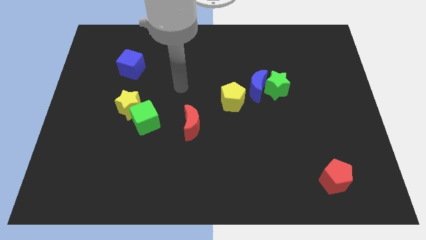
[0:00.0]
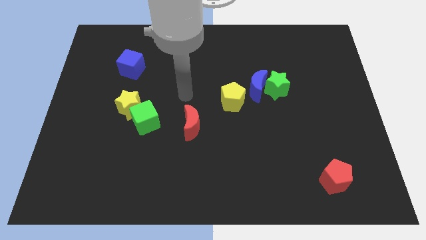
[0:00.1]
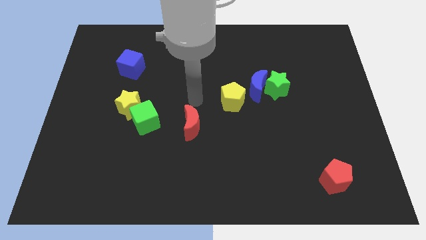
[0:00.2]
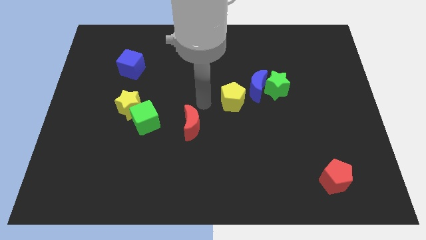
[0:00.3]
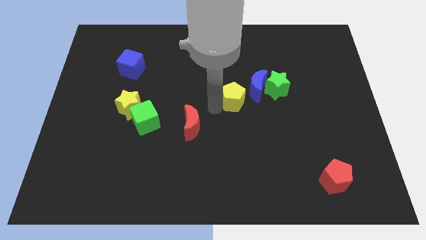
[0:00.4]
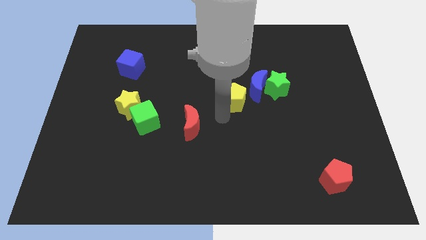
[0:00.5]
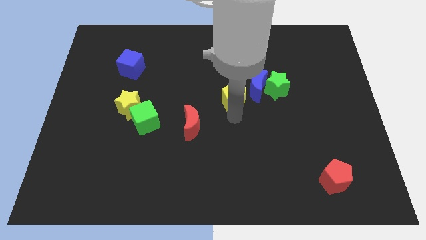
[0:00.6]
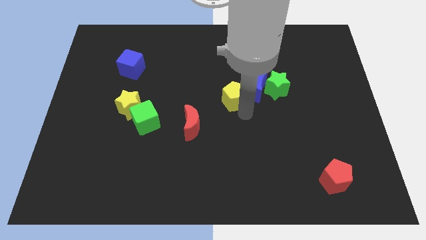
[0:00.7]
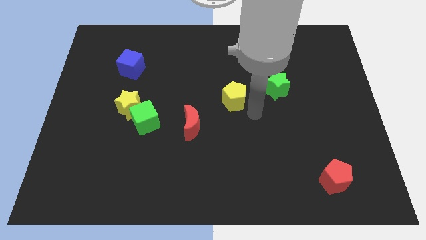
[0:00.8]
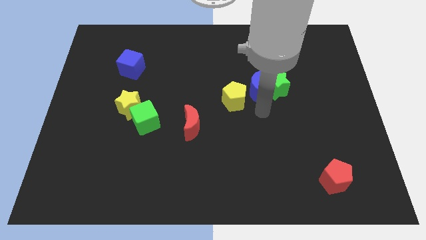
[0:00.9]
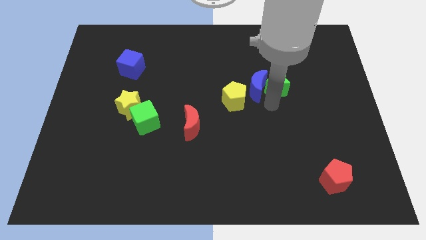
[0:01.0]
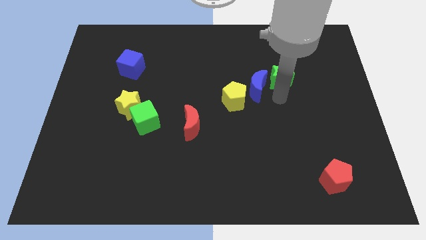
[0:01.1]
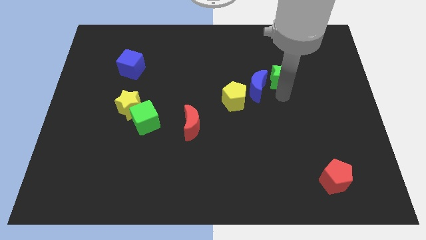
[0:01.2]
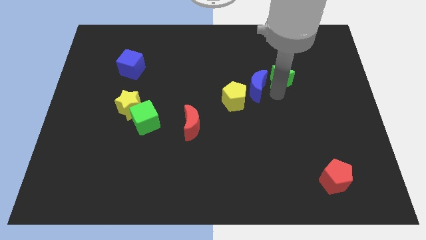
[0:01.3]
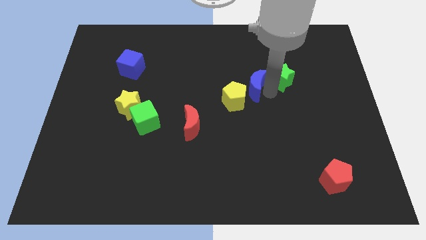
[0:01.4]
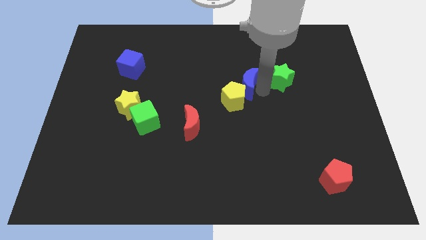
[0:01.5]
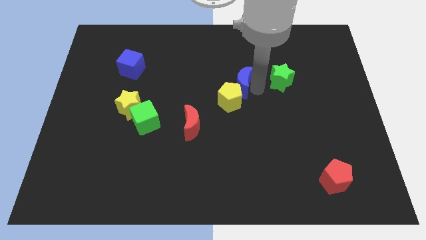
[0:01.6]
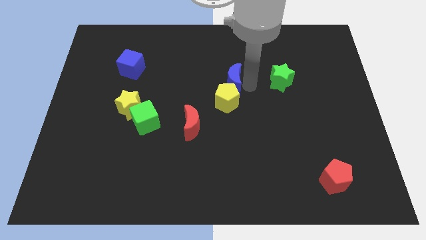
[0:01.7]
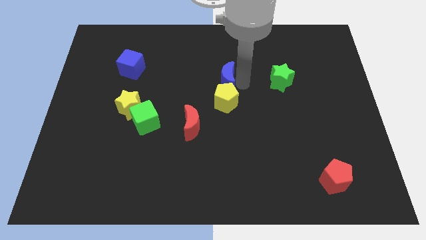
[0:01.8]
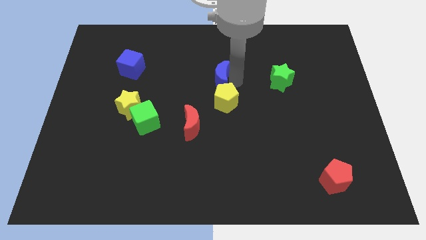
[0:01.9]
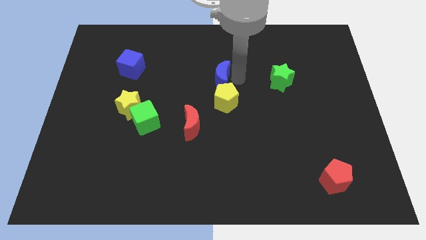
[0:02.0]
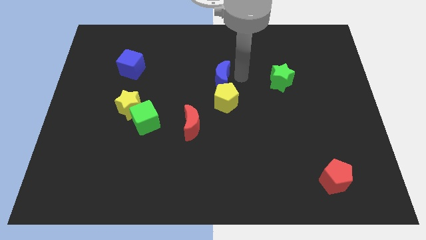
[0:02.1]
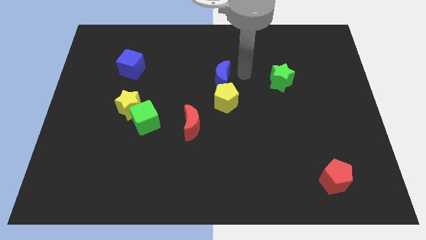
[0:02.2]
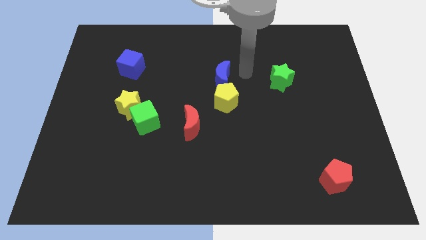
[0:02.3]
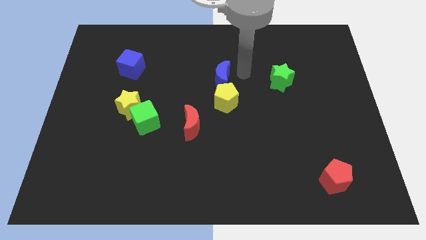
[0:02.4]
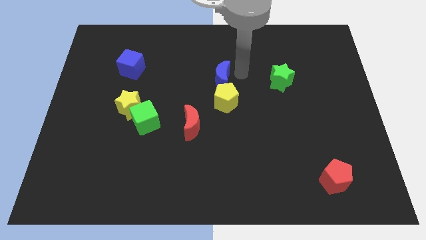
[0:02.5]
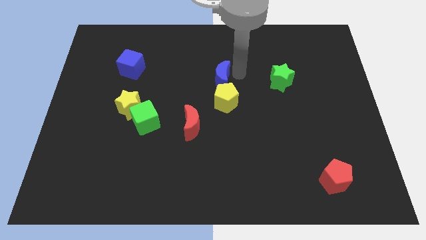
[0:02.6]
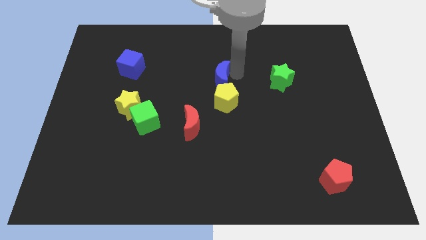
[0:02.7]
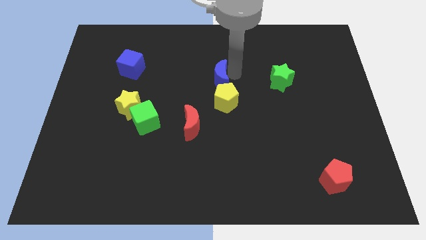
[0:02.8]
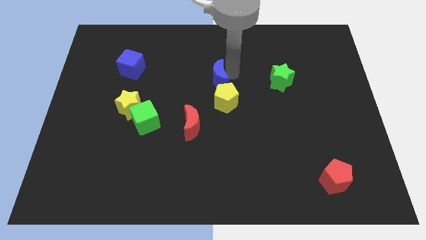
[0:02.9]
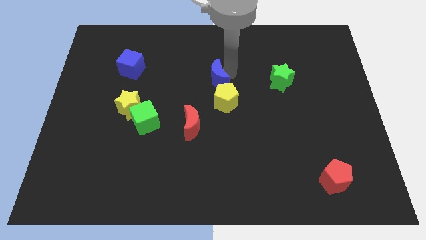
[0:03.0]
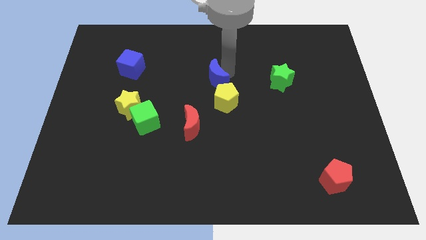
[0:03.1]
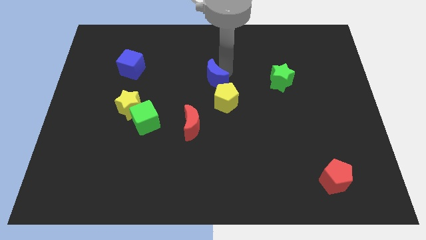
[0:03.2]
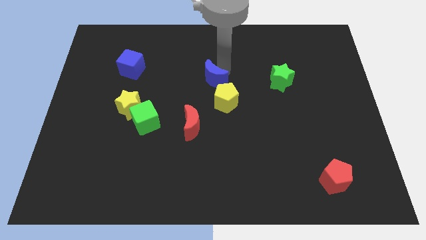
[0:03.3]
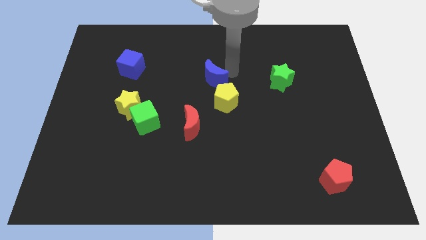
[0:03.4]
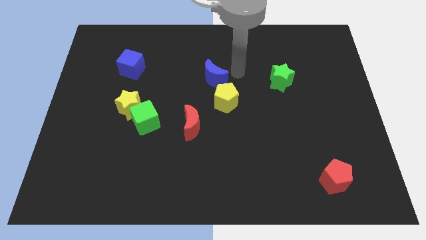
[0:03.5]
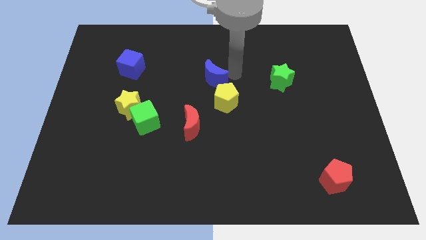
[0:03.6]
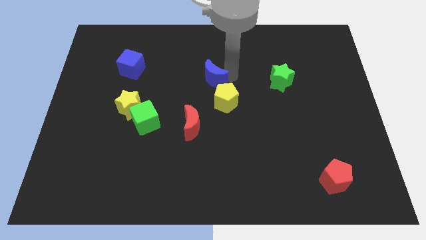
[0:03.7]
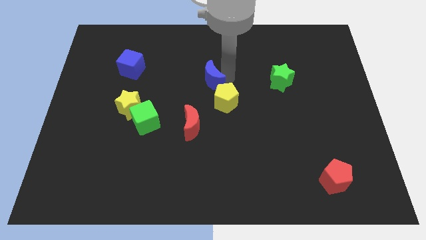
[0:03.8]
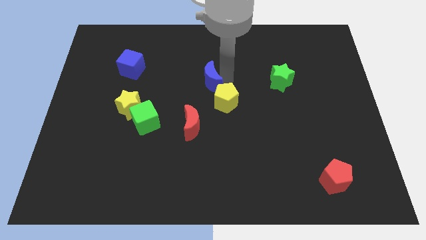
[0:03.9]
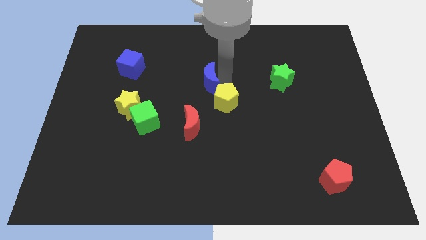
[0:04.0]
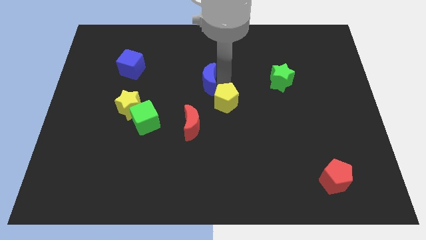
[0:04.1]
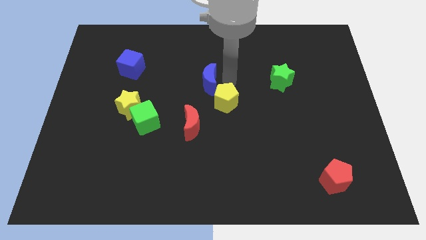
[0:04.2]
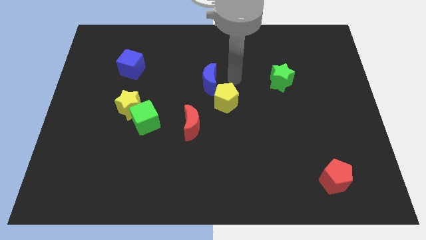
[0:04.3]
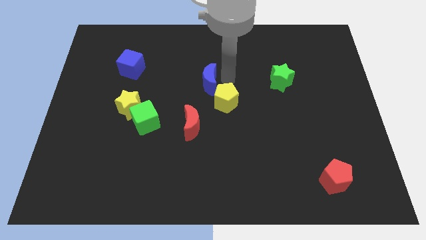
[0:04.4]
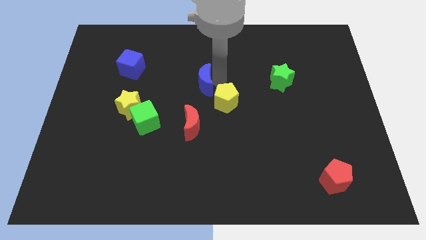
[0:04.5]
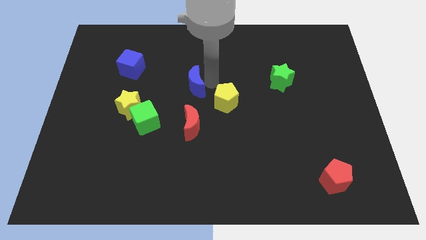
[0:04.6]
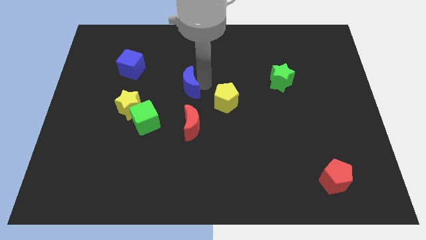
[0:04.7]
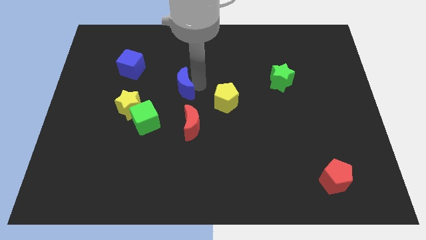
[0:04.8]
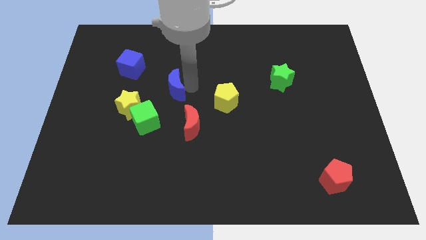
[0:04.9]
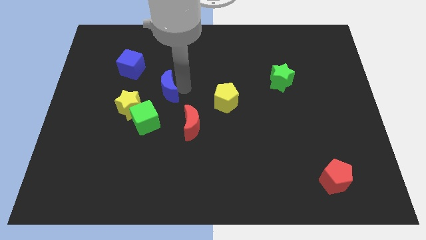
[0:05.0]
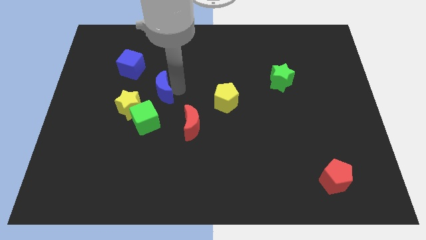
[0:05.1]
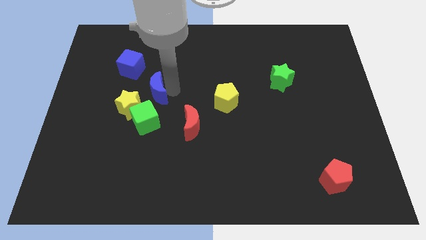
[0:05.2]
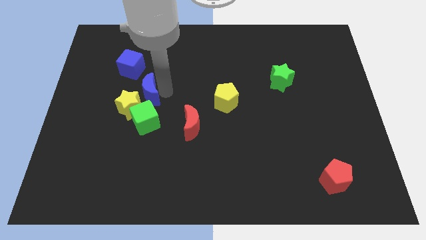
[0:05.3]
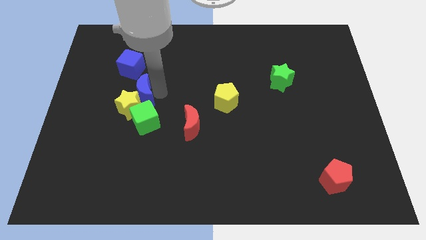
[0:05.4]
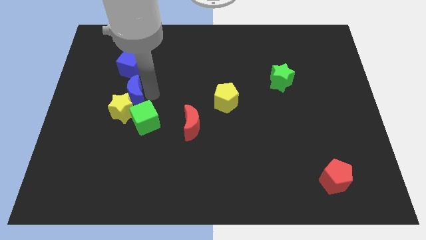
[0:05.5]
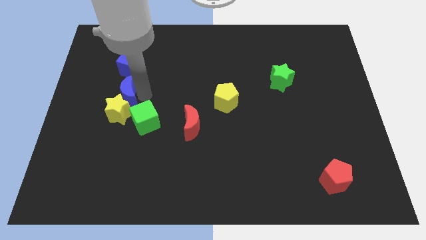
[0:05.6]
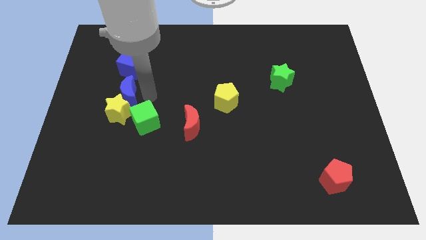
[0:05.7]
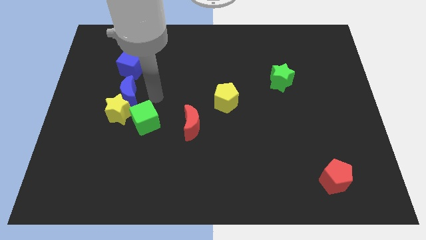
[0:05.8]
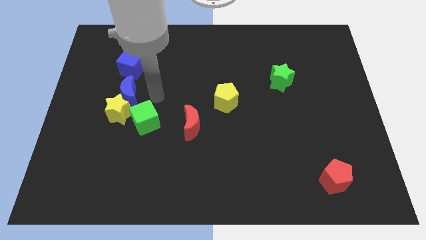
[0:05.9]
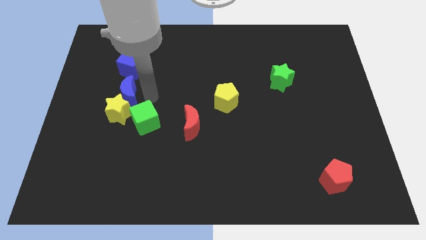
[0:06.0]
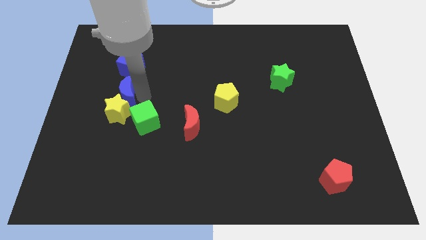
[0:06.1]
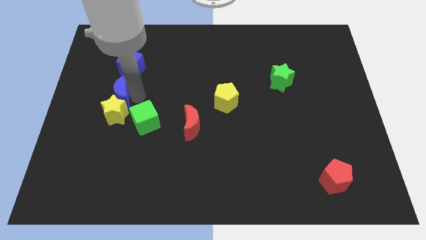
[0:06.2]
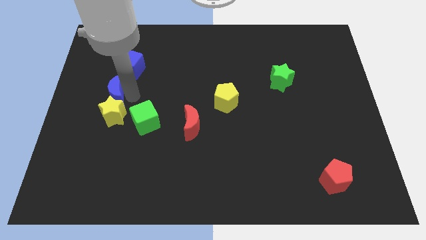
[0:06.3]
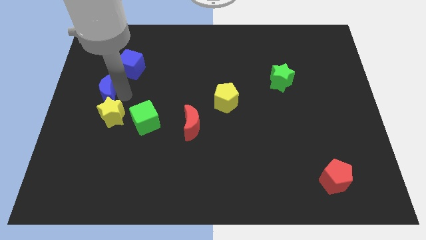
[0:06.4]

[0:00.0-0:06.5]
push the blue moon to the center left
